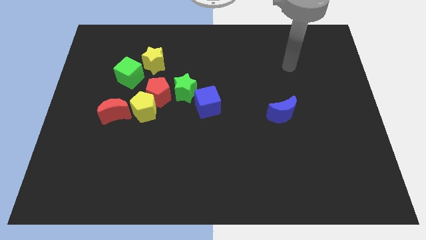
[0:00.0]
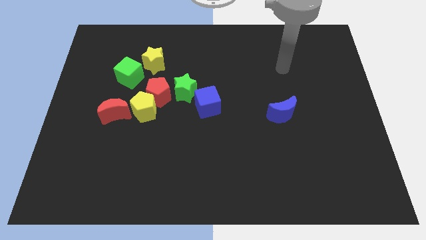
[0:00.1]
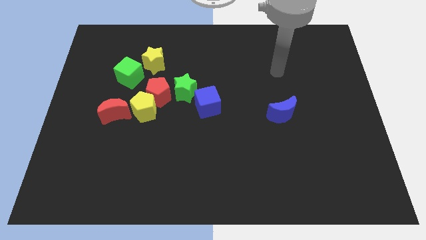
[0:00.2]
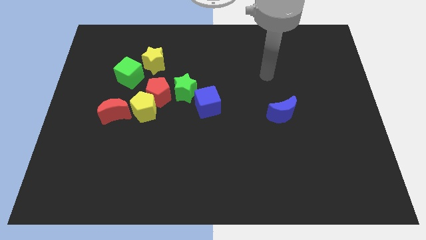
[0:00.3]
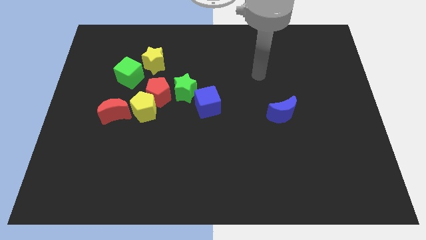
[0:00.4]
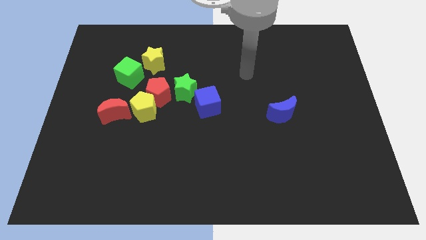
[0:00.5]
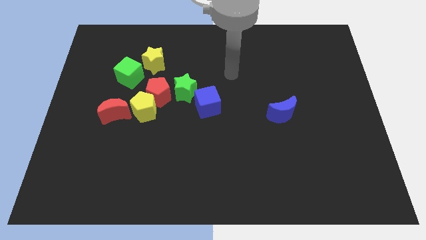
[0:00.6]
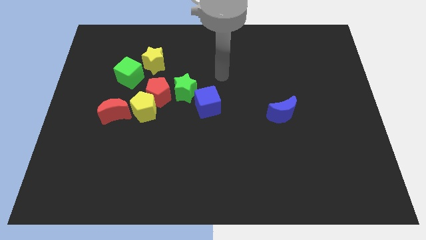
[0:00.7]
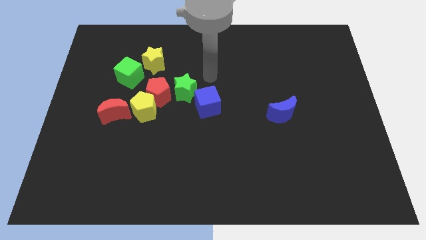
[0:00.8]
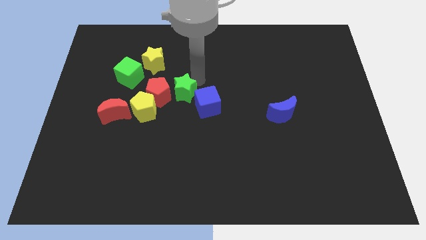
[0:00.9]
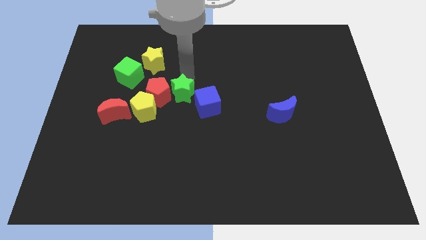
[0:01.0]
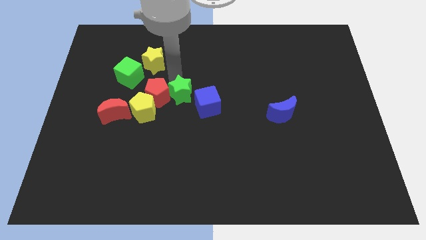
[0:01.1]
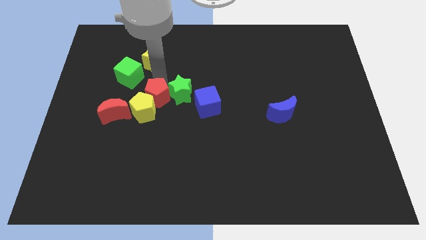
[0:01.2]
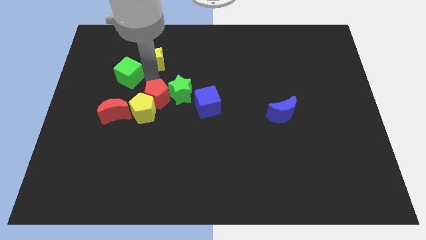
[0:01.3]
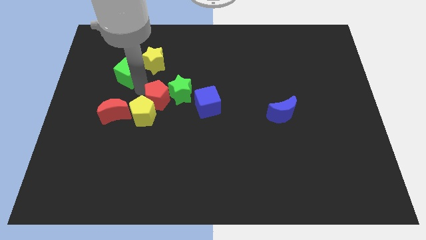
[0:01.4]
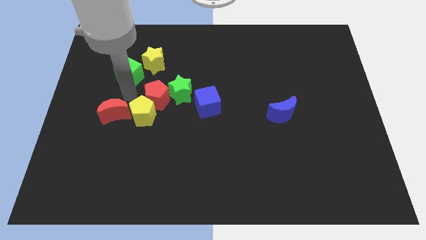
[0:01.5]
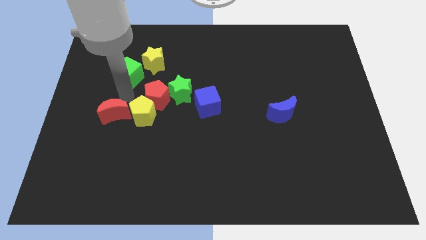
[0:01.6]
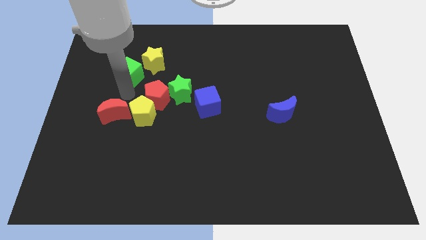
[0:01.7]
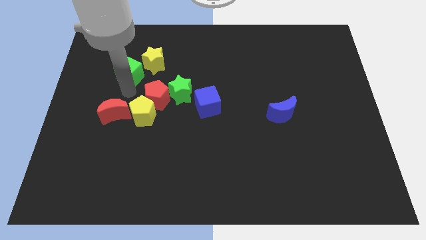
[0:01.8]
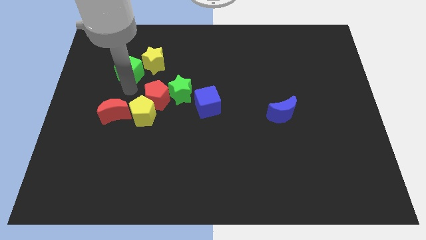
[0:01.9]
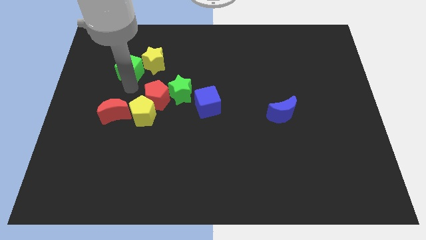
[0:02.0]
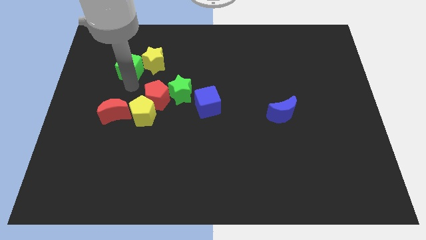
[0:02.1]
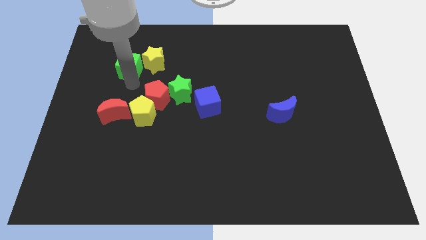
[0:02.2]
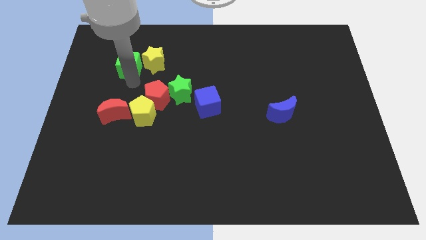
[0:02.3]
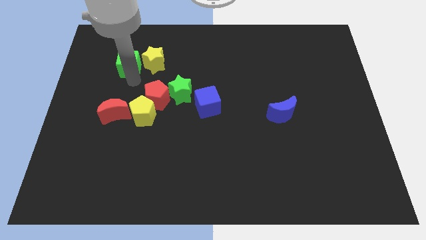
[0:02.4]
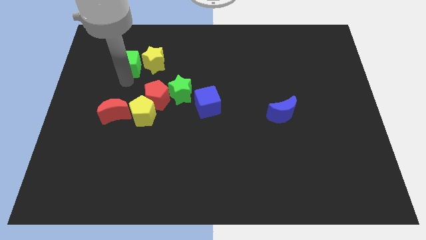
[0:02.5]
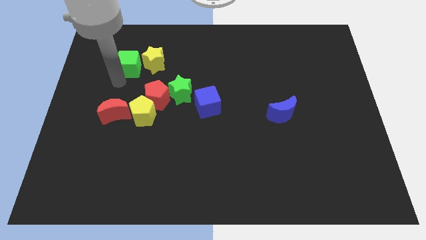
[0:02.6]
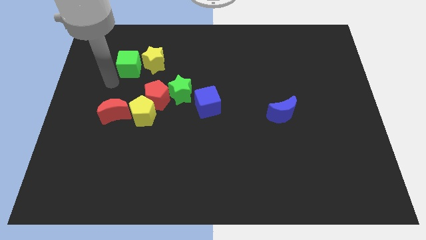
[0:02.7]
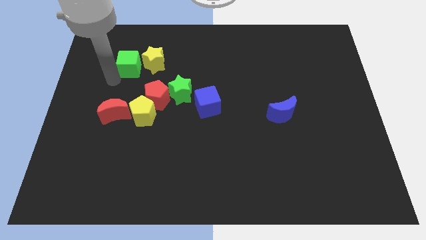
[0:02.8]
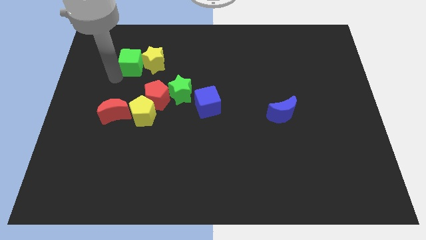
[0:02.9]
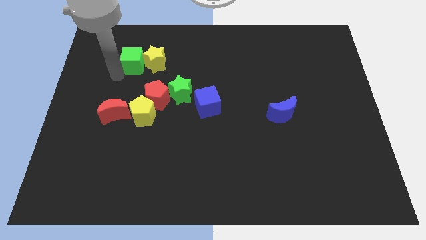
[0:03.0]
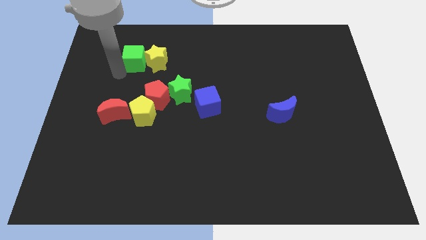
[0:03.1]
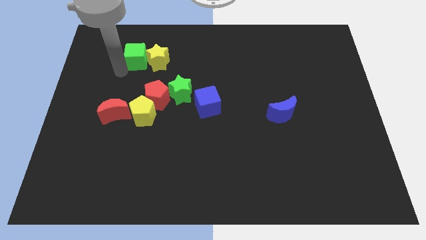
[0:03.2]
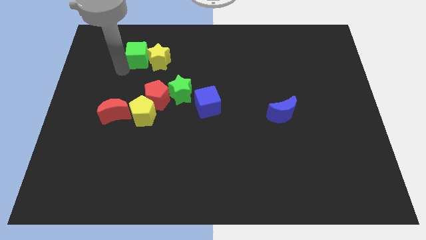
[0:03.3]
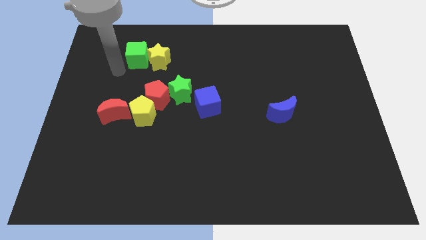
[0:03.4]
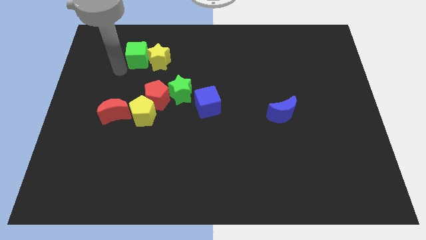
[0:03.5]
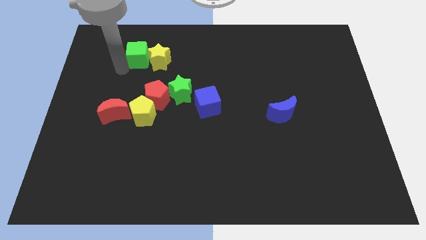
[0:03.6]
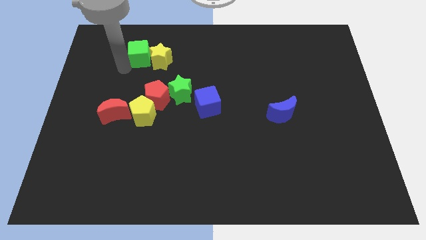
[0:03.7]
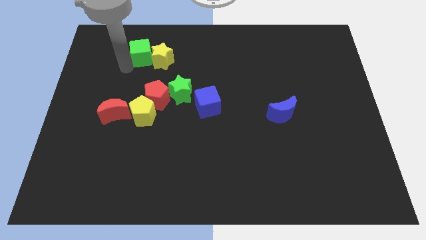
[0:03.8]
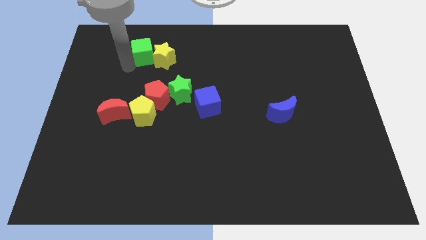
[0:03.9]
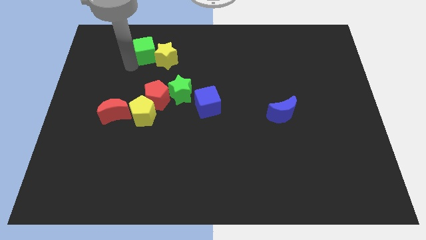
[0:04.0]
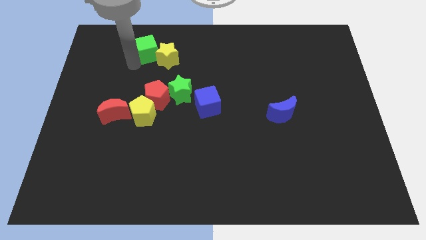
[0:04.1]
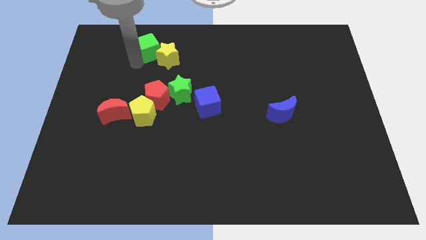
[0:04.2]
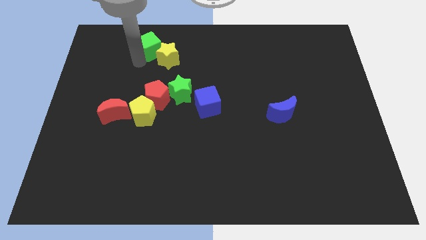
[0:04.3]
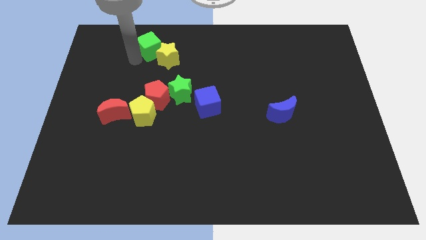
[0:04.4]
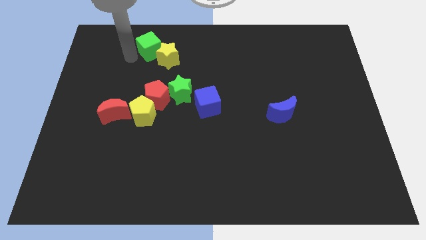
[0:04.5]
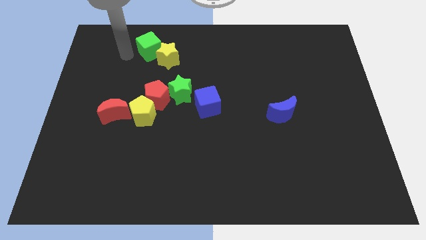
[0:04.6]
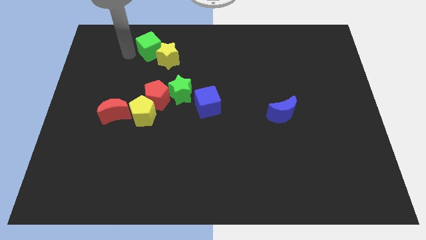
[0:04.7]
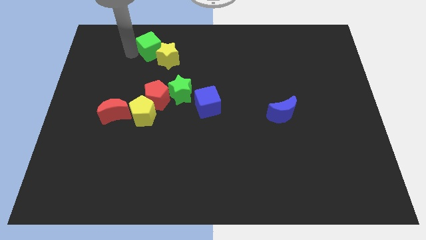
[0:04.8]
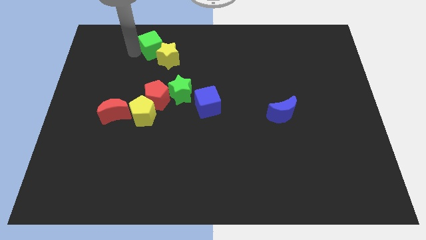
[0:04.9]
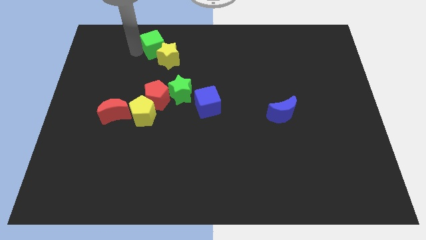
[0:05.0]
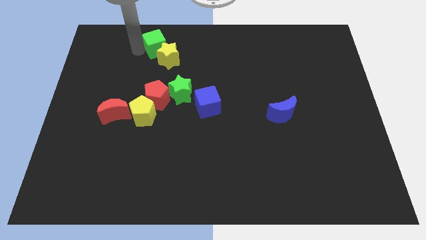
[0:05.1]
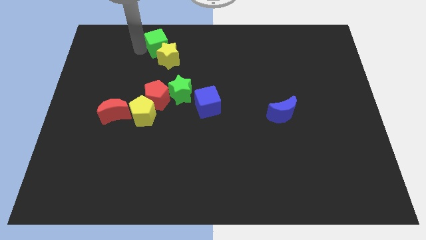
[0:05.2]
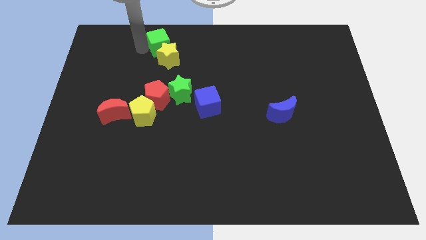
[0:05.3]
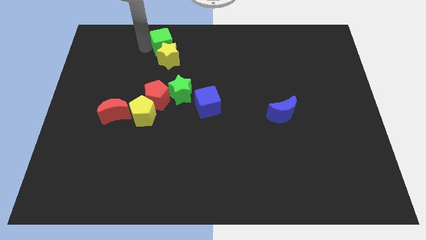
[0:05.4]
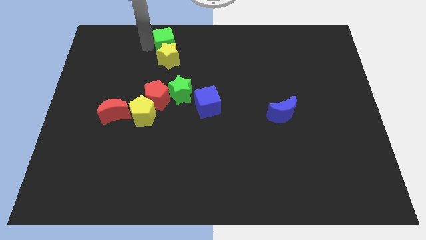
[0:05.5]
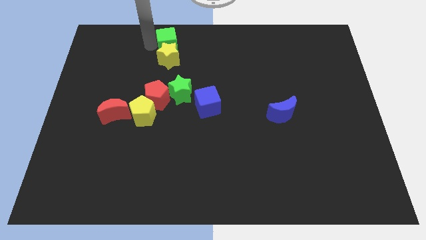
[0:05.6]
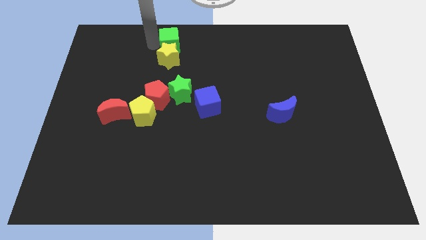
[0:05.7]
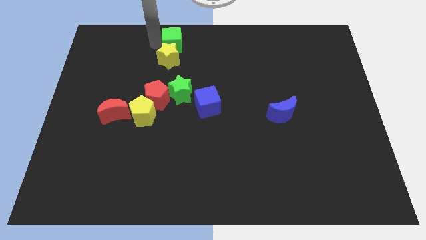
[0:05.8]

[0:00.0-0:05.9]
slide the green cube to the top side
